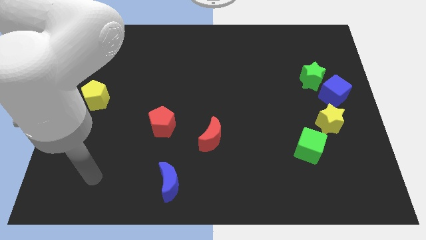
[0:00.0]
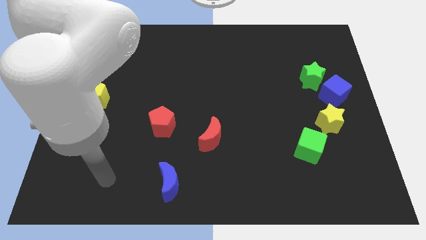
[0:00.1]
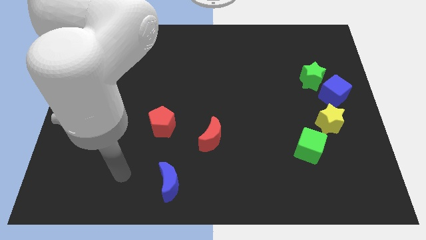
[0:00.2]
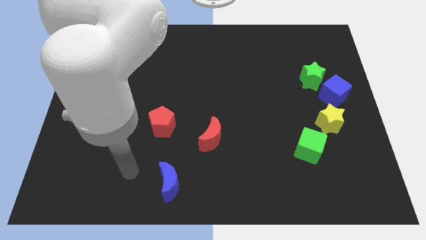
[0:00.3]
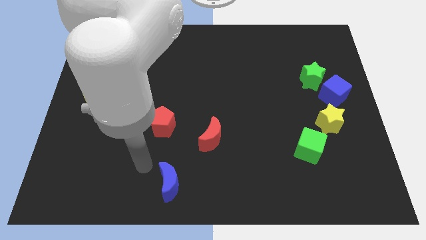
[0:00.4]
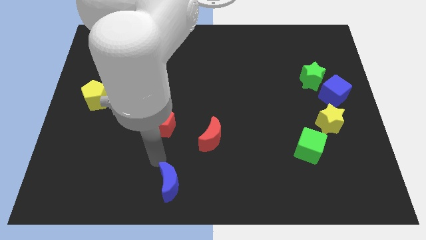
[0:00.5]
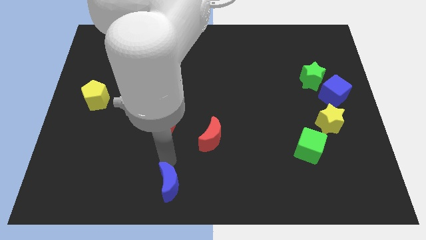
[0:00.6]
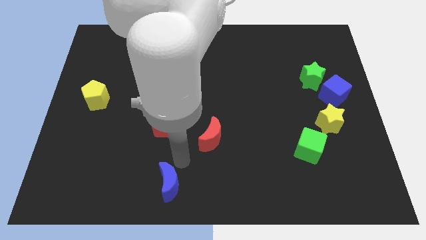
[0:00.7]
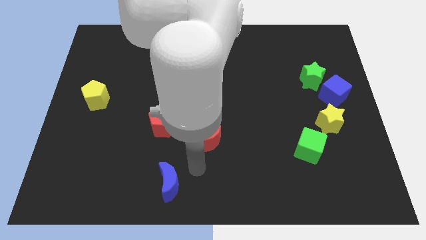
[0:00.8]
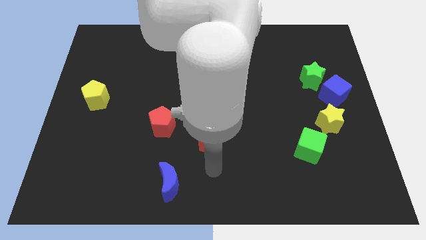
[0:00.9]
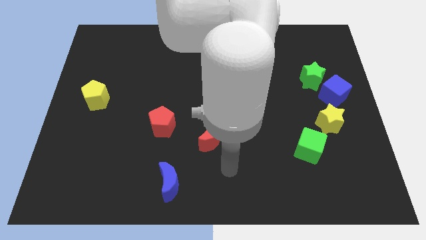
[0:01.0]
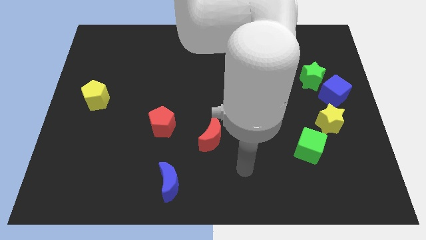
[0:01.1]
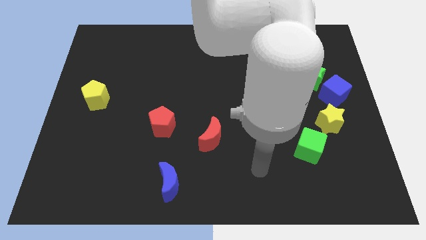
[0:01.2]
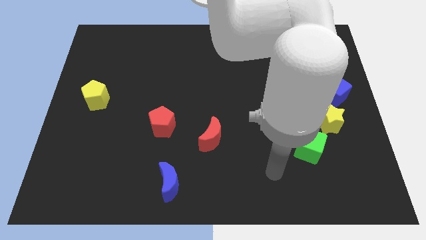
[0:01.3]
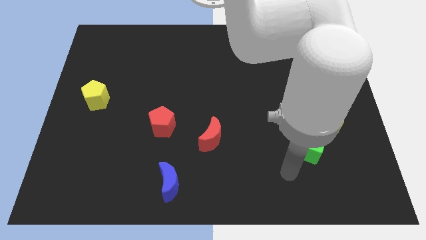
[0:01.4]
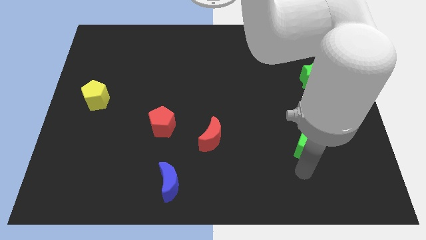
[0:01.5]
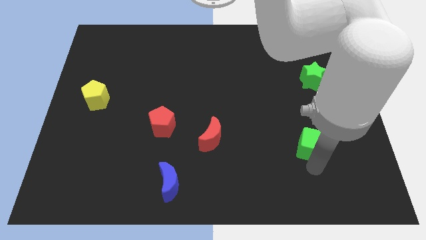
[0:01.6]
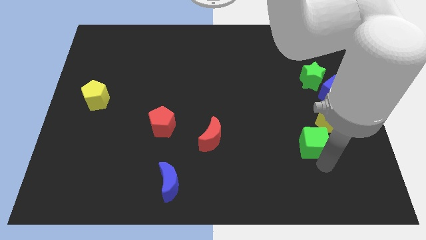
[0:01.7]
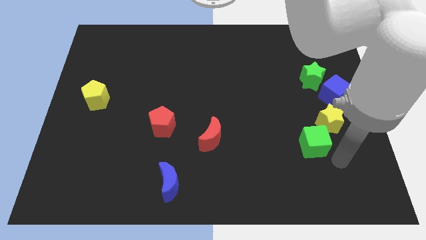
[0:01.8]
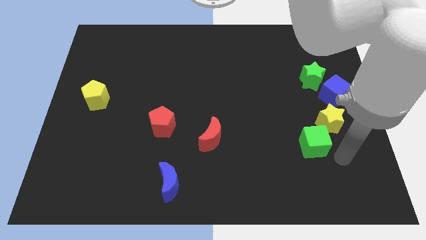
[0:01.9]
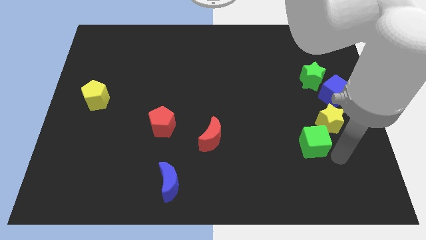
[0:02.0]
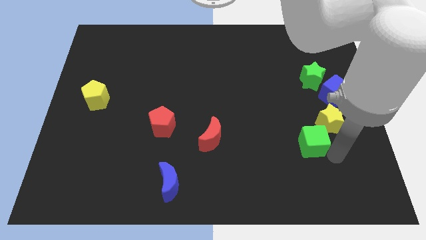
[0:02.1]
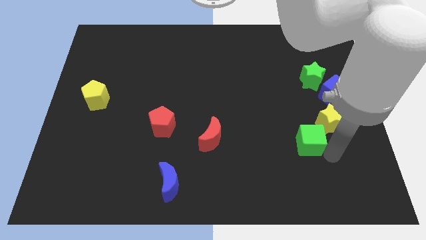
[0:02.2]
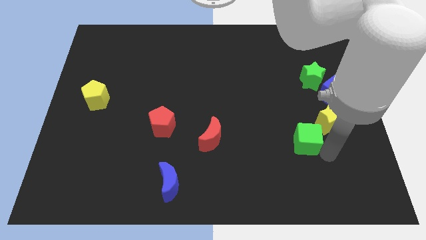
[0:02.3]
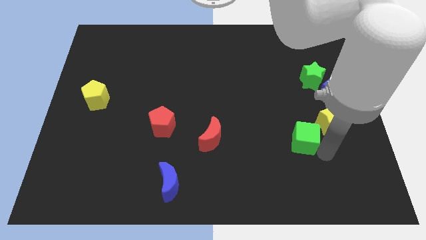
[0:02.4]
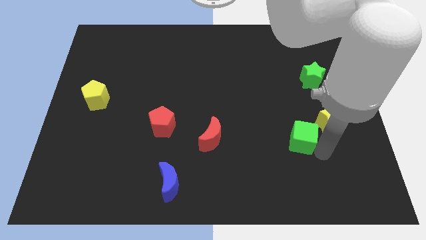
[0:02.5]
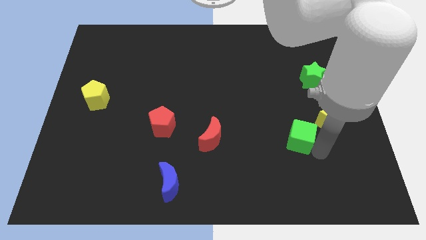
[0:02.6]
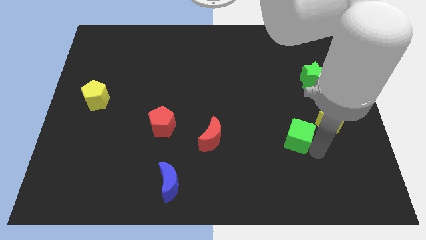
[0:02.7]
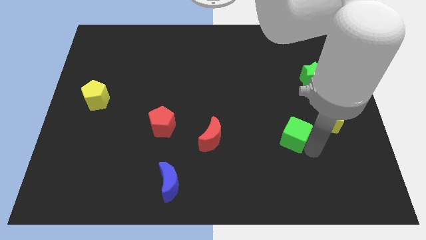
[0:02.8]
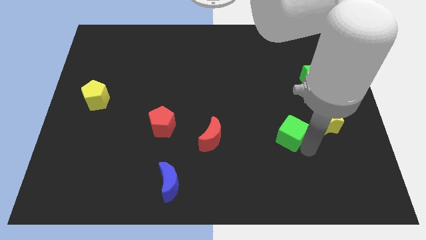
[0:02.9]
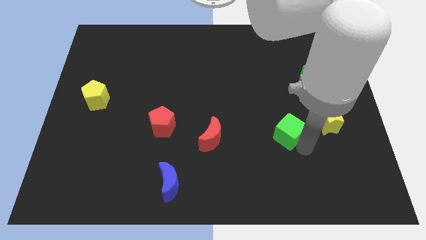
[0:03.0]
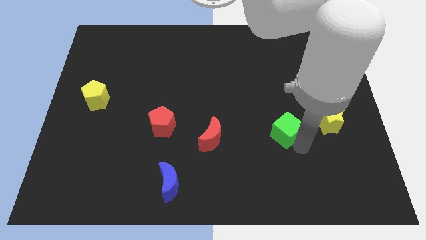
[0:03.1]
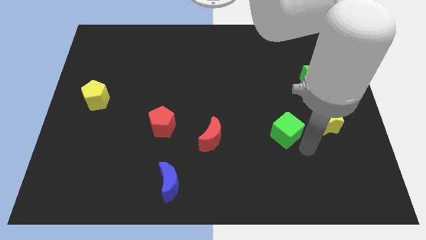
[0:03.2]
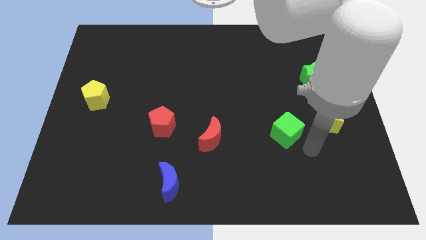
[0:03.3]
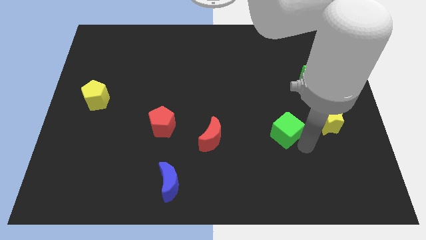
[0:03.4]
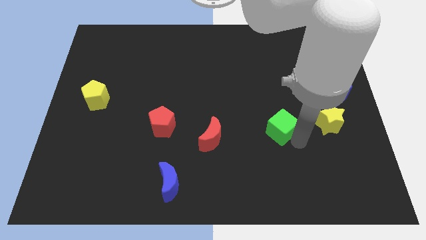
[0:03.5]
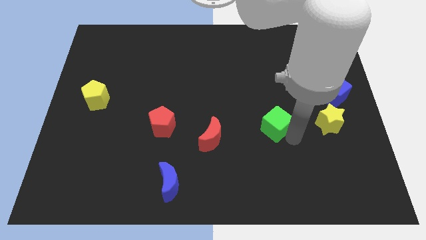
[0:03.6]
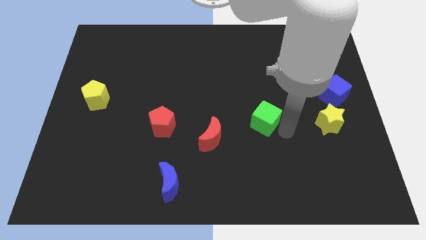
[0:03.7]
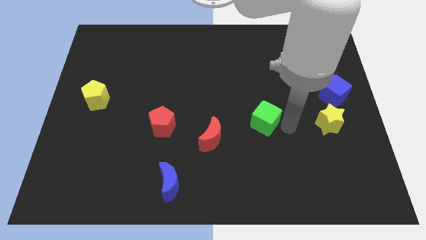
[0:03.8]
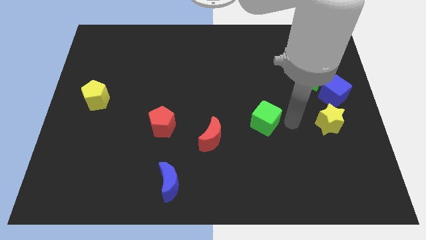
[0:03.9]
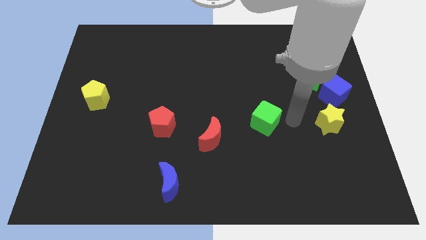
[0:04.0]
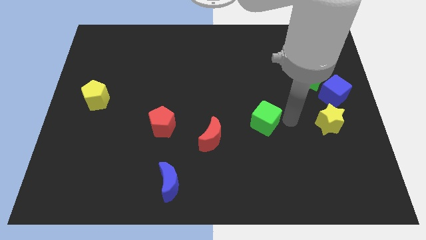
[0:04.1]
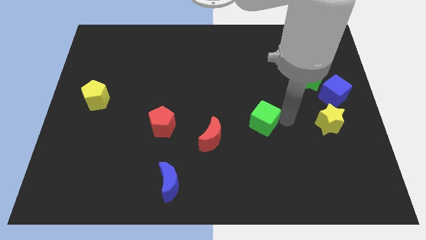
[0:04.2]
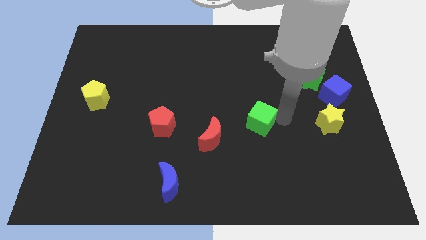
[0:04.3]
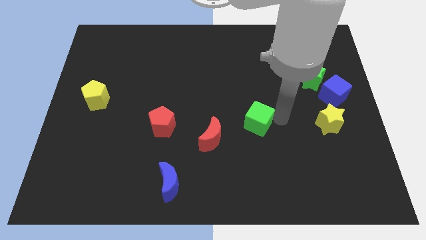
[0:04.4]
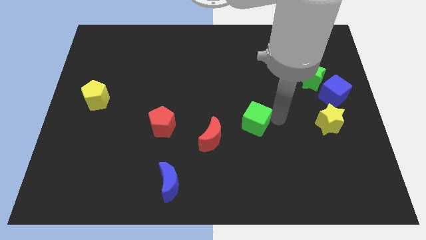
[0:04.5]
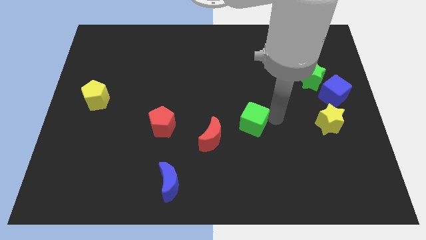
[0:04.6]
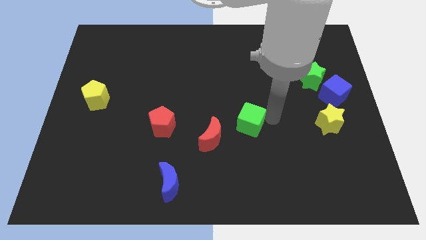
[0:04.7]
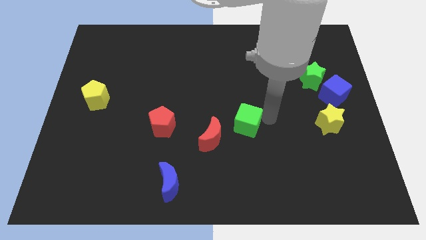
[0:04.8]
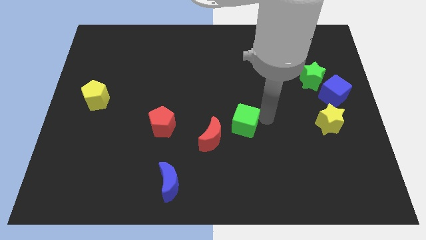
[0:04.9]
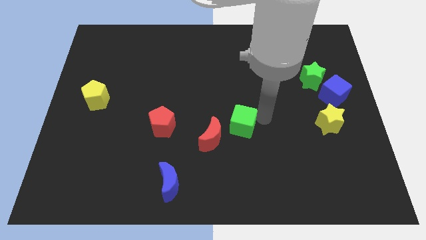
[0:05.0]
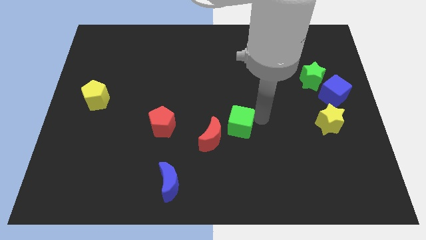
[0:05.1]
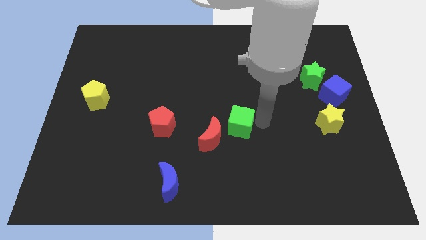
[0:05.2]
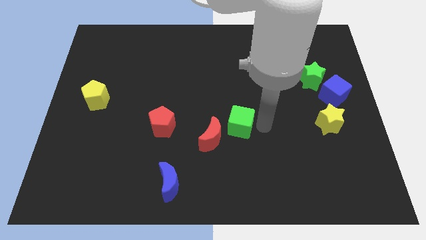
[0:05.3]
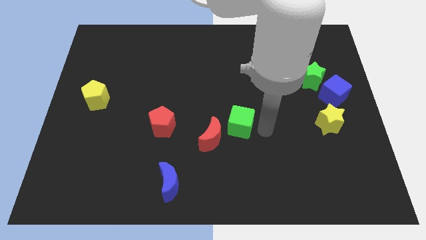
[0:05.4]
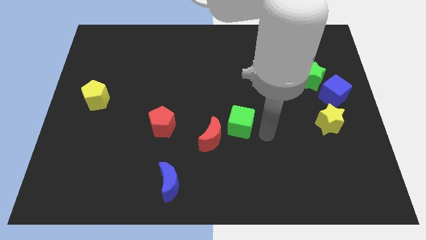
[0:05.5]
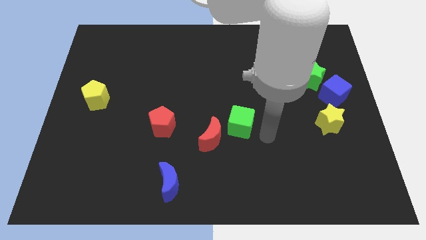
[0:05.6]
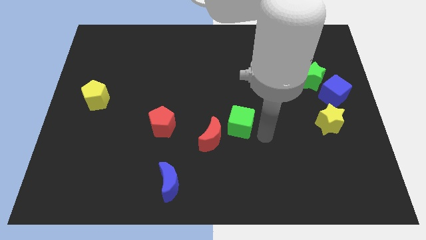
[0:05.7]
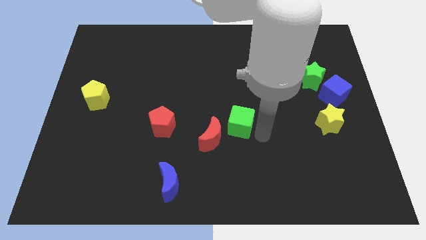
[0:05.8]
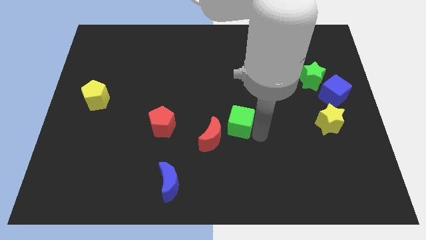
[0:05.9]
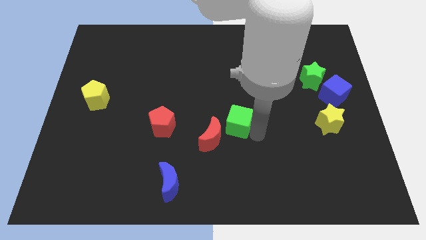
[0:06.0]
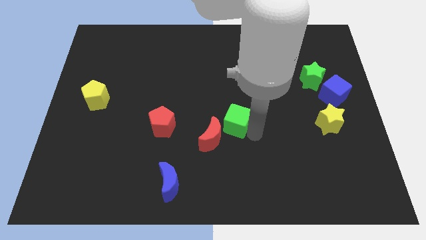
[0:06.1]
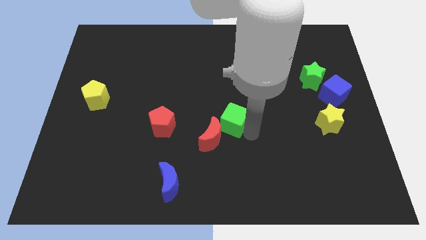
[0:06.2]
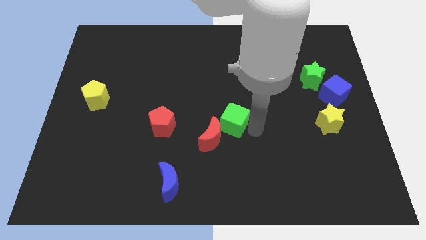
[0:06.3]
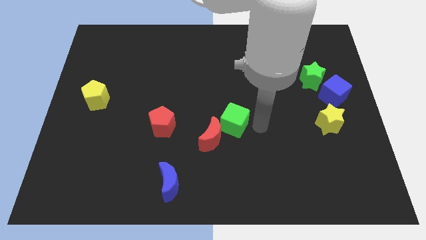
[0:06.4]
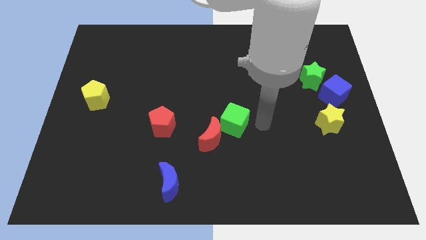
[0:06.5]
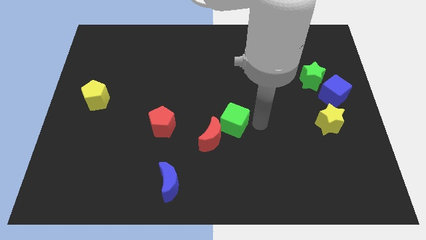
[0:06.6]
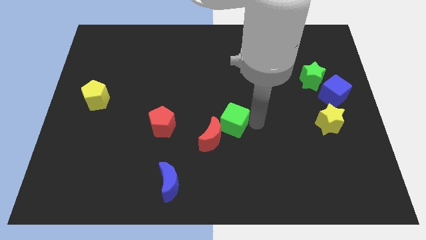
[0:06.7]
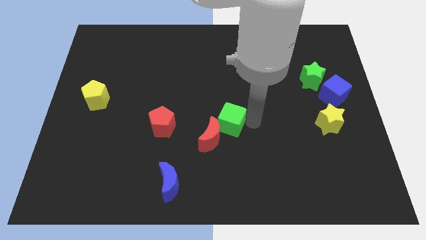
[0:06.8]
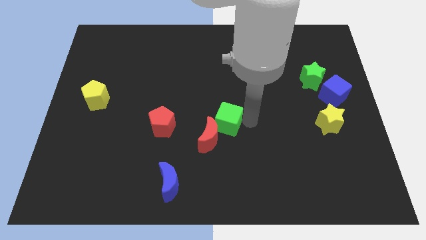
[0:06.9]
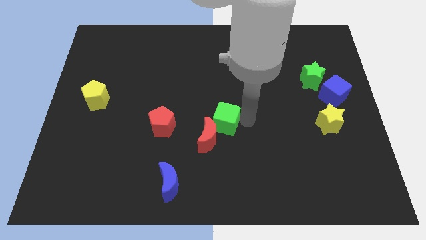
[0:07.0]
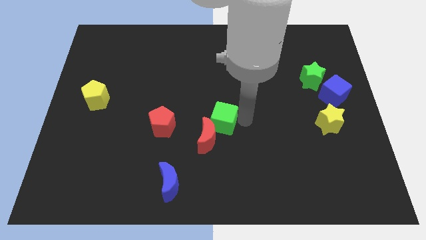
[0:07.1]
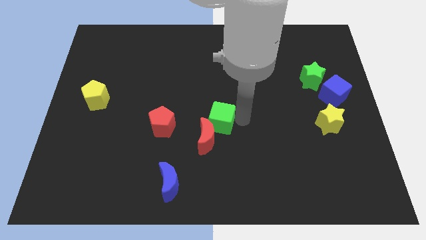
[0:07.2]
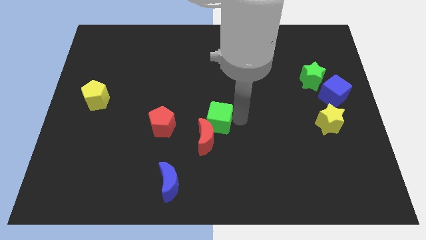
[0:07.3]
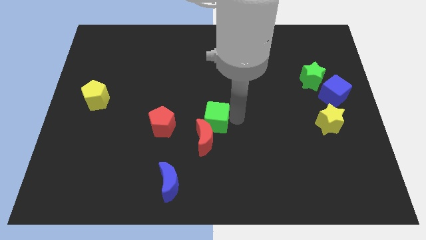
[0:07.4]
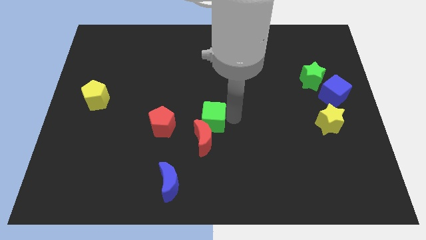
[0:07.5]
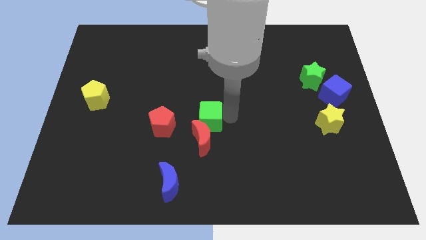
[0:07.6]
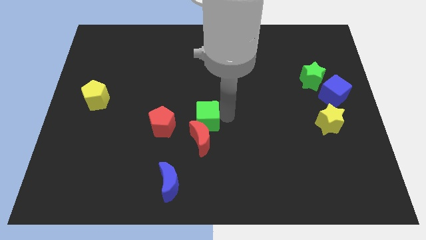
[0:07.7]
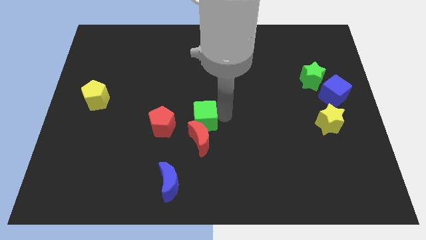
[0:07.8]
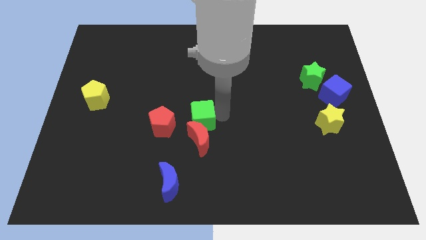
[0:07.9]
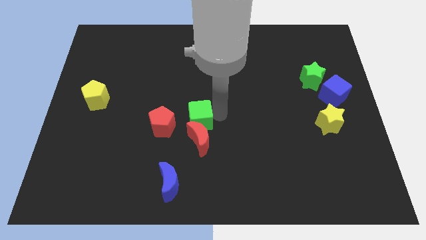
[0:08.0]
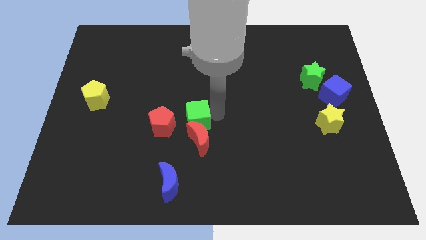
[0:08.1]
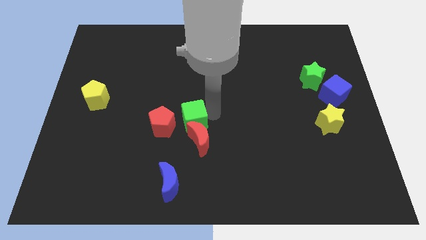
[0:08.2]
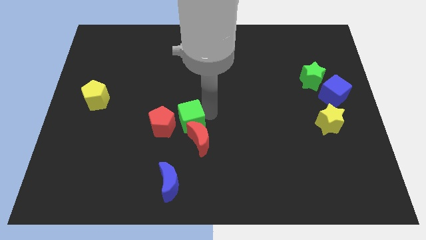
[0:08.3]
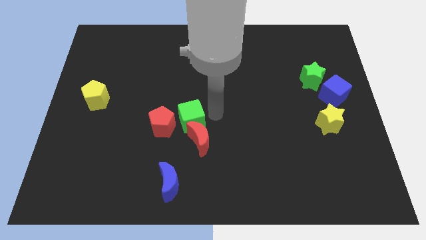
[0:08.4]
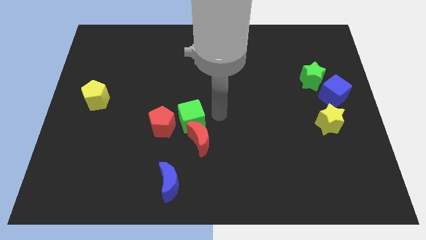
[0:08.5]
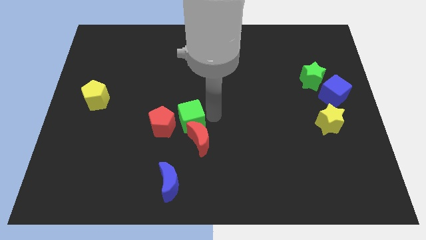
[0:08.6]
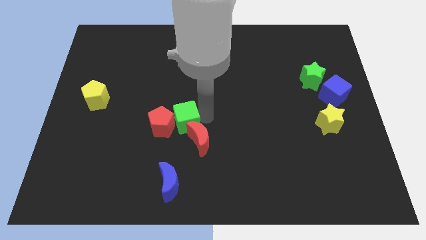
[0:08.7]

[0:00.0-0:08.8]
slide the green cube next to the red pentagon
